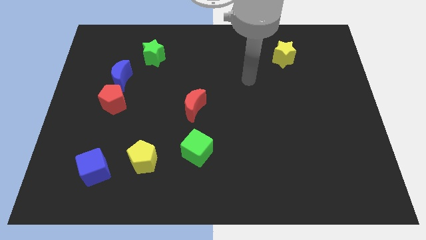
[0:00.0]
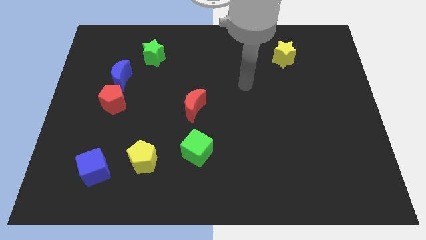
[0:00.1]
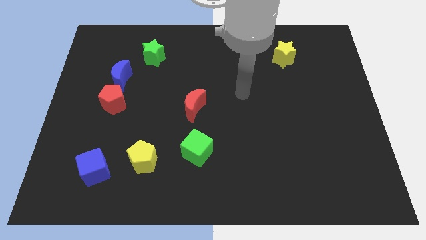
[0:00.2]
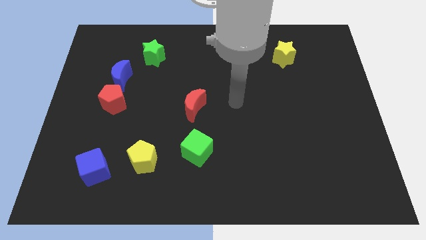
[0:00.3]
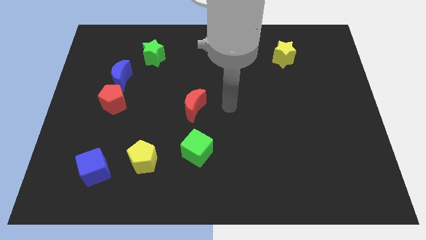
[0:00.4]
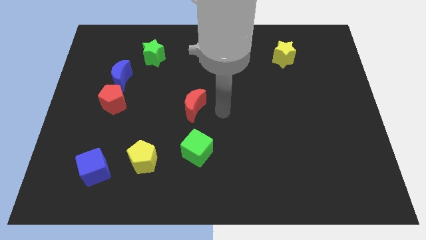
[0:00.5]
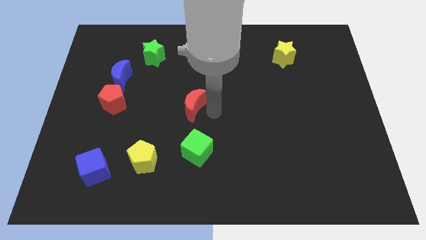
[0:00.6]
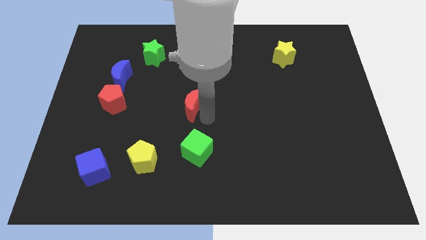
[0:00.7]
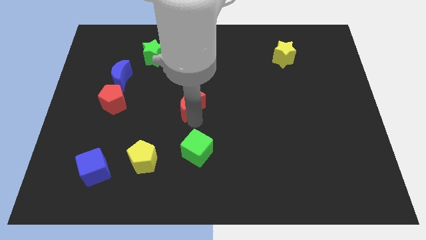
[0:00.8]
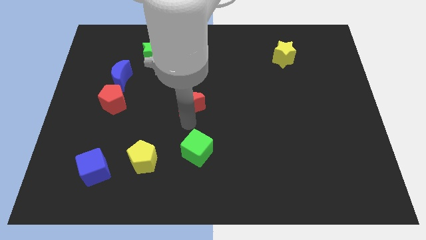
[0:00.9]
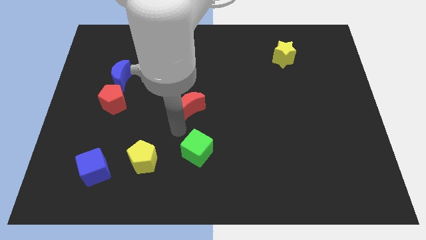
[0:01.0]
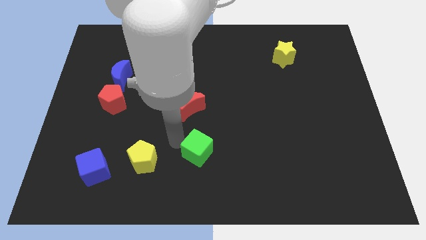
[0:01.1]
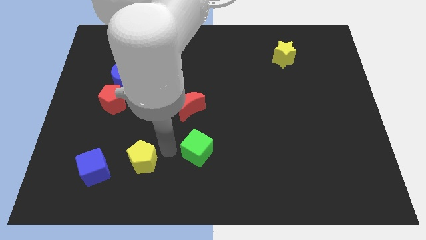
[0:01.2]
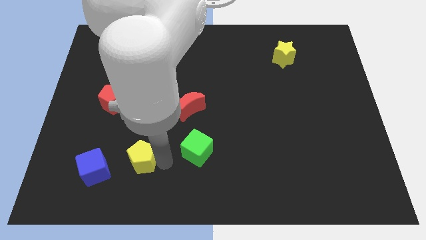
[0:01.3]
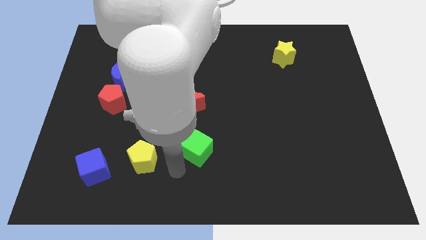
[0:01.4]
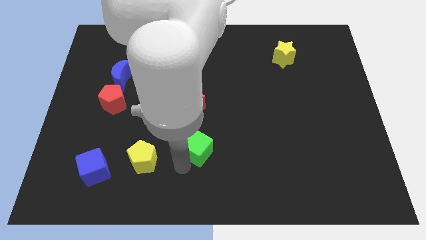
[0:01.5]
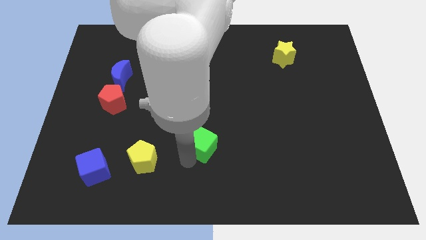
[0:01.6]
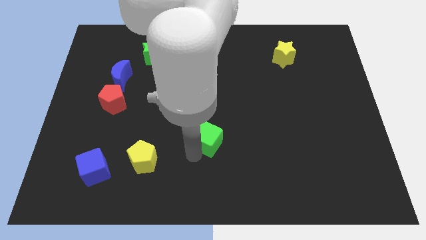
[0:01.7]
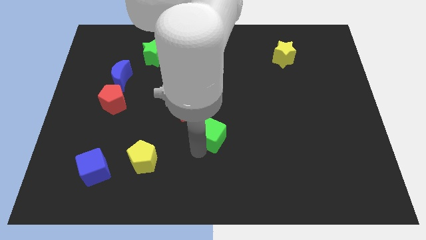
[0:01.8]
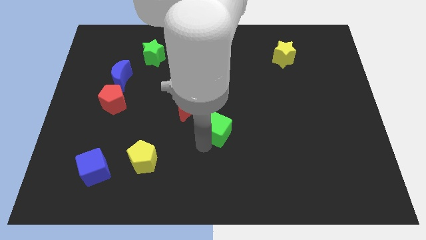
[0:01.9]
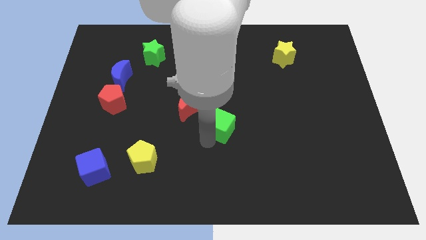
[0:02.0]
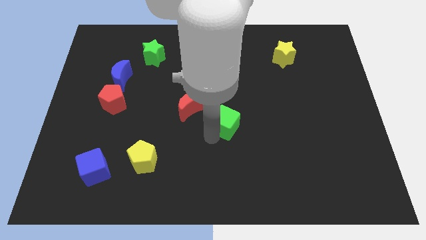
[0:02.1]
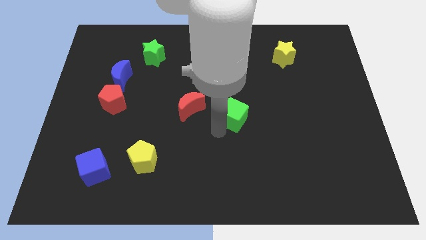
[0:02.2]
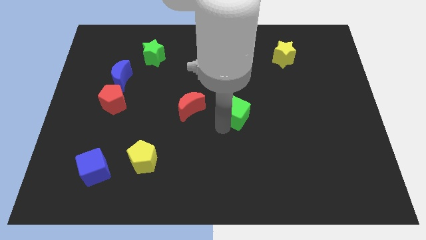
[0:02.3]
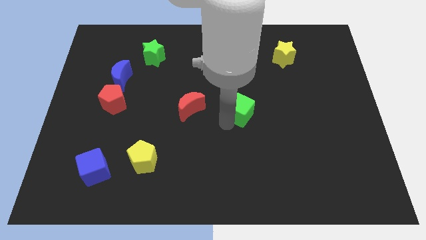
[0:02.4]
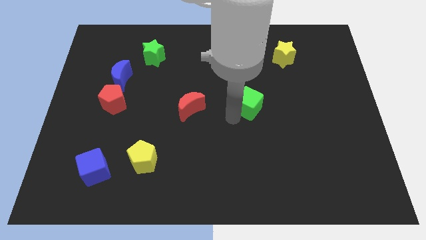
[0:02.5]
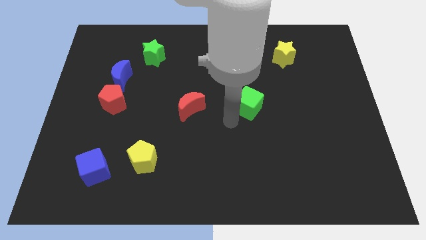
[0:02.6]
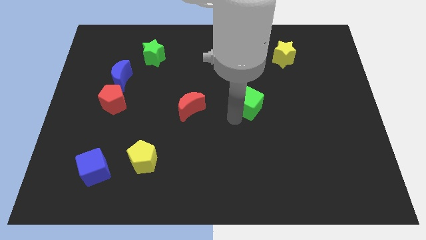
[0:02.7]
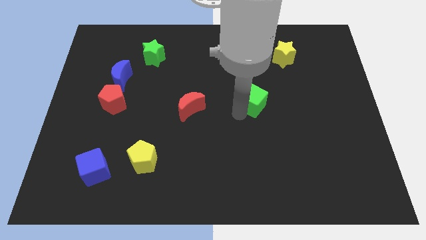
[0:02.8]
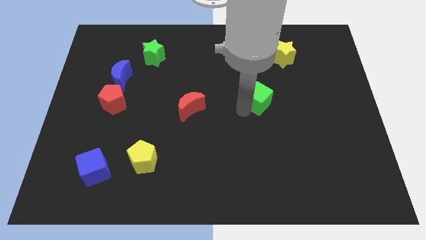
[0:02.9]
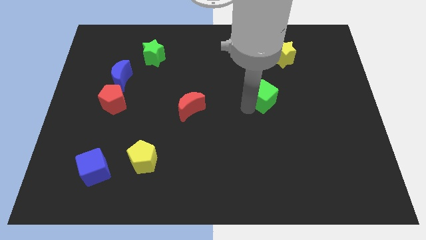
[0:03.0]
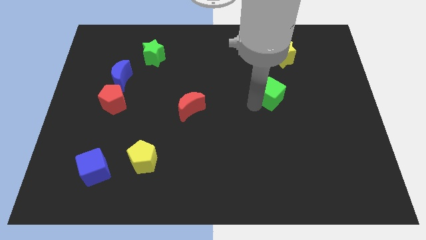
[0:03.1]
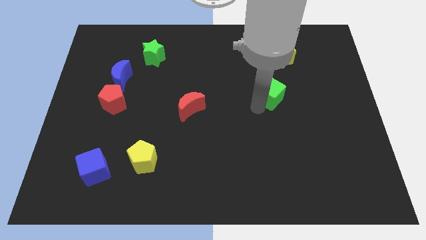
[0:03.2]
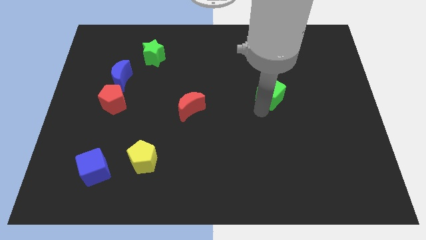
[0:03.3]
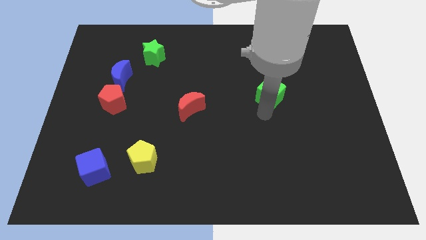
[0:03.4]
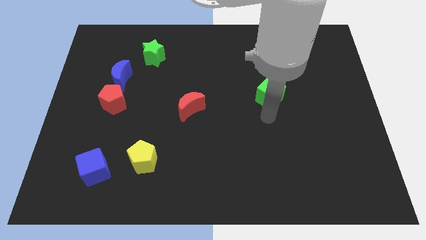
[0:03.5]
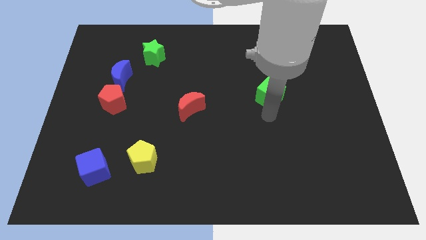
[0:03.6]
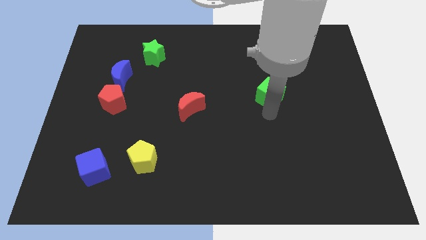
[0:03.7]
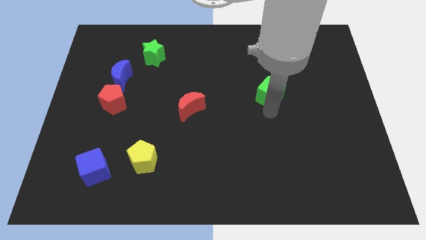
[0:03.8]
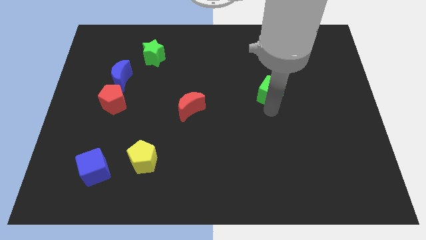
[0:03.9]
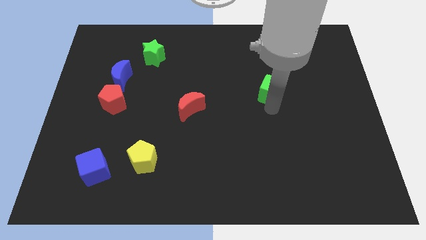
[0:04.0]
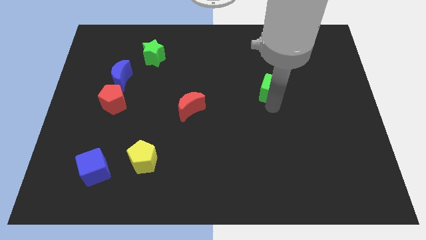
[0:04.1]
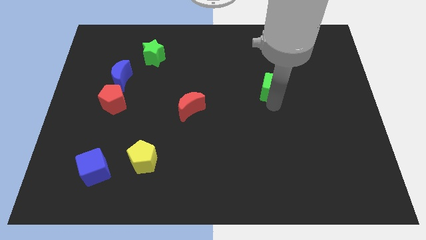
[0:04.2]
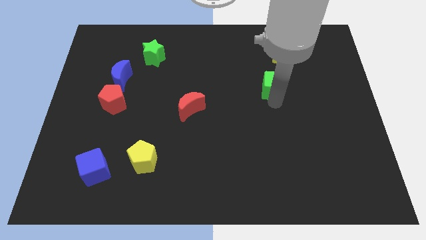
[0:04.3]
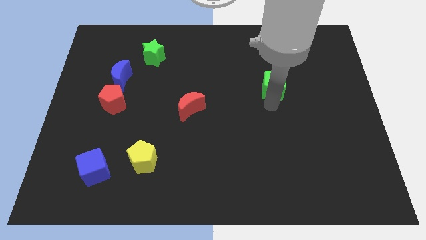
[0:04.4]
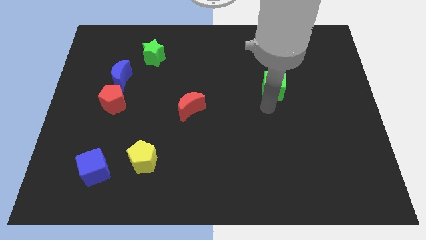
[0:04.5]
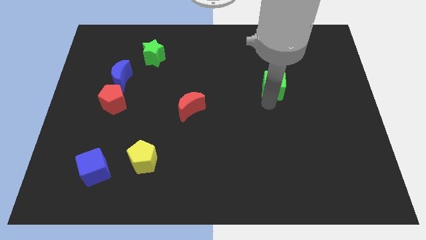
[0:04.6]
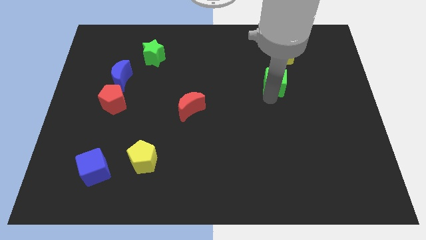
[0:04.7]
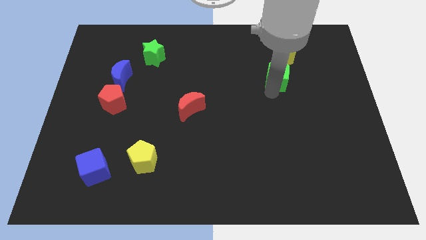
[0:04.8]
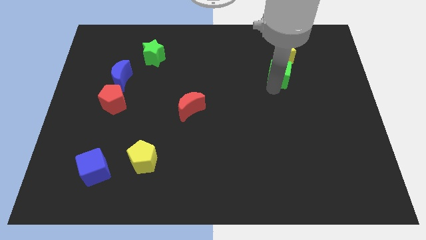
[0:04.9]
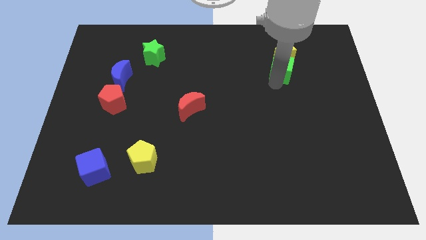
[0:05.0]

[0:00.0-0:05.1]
put the green cube towards the yellow star

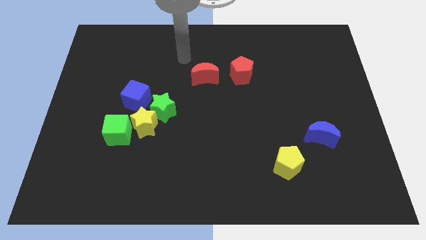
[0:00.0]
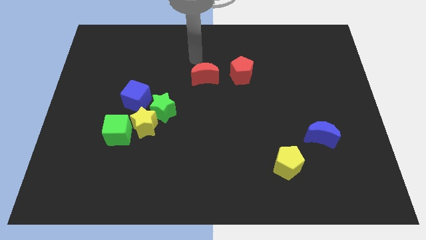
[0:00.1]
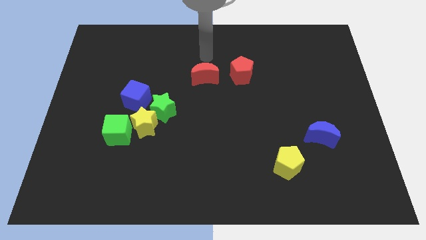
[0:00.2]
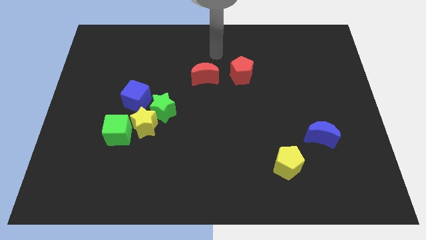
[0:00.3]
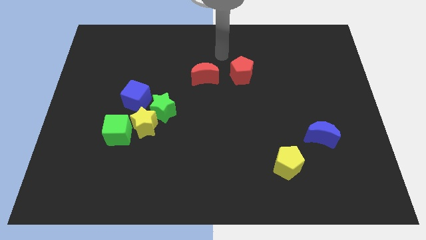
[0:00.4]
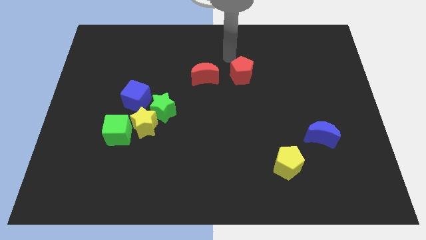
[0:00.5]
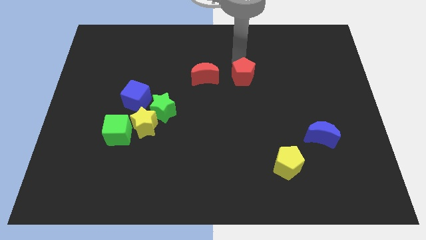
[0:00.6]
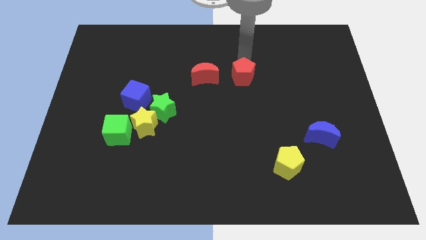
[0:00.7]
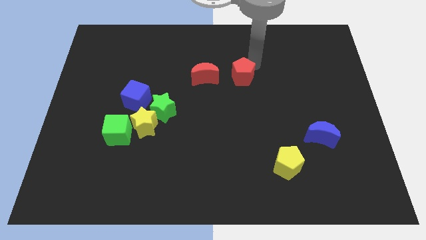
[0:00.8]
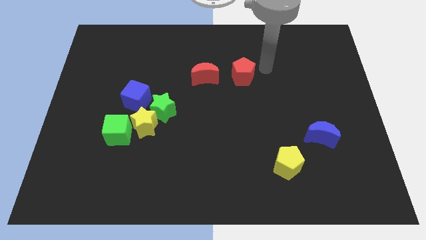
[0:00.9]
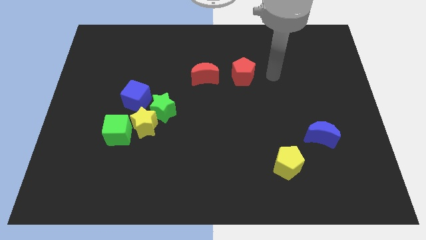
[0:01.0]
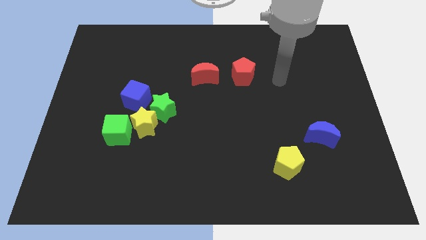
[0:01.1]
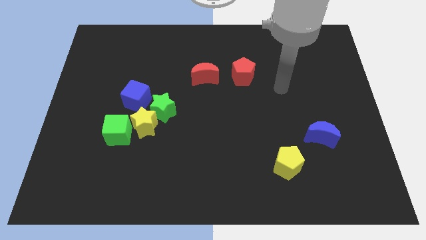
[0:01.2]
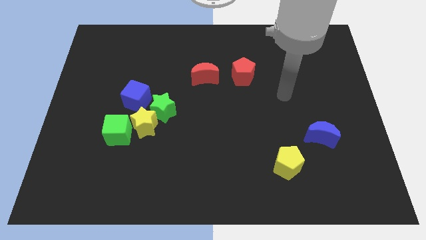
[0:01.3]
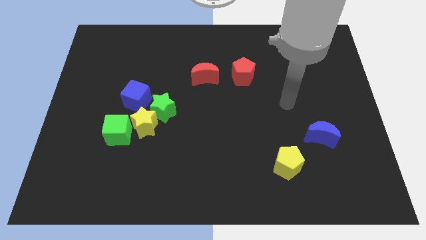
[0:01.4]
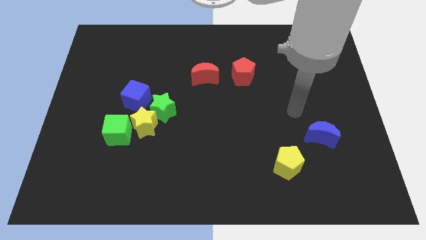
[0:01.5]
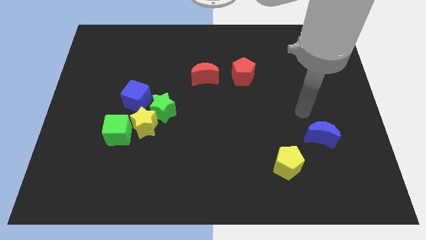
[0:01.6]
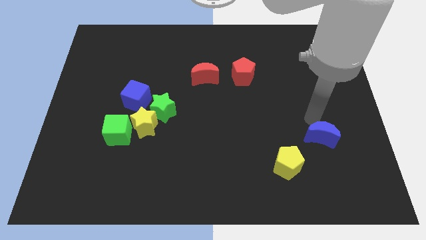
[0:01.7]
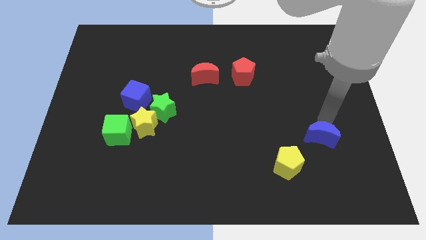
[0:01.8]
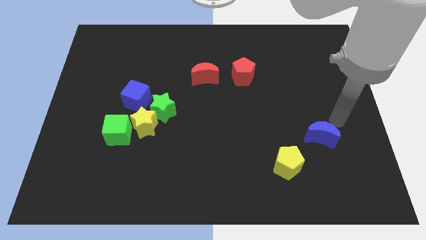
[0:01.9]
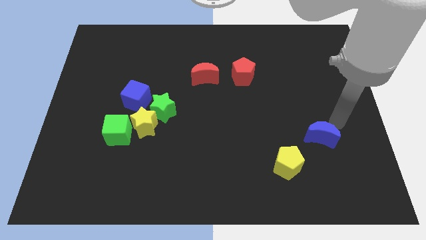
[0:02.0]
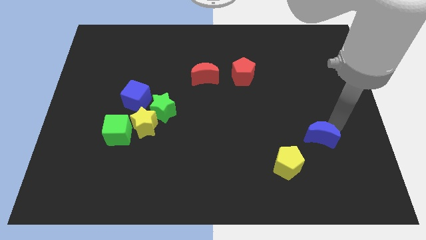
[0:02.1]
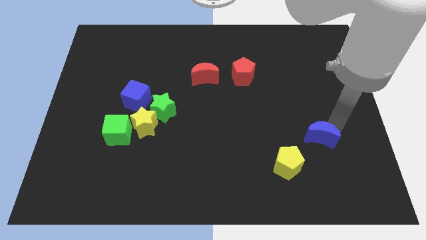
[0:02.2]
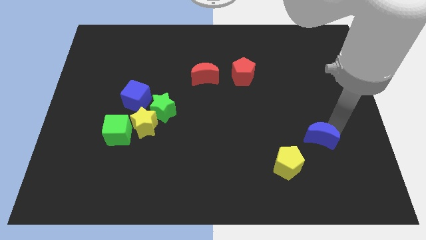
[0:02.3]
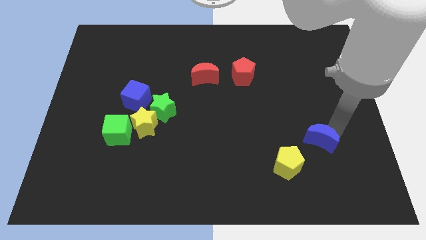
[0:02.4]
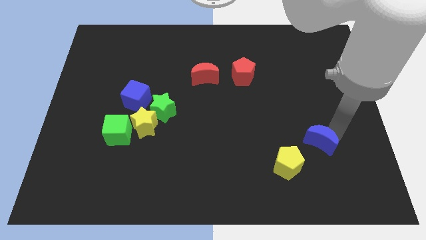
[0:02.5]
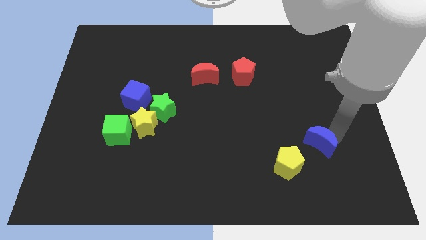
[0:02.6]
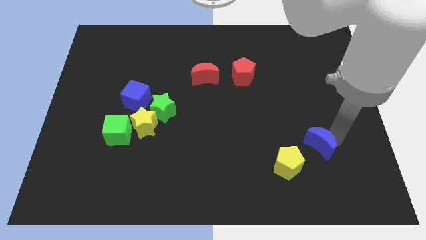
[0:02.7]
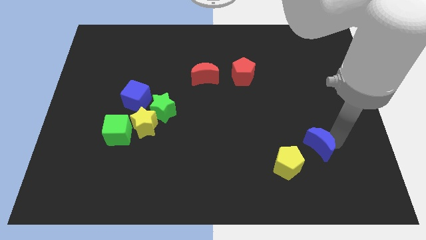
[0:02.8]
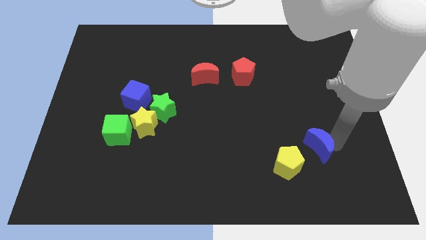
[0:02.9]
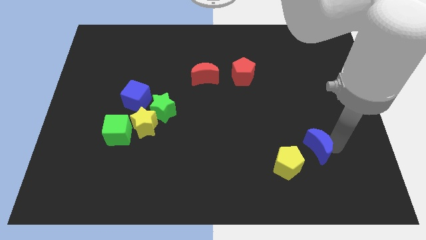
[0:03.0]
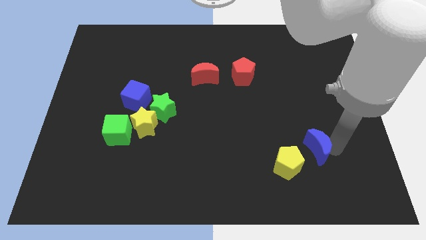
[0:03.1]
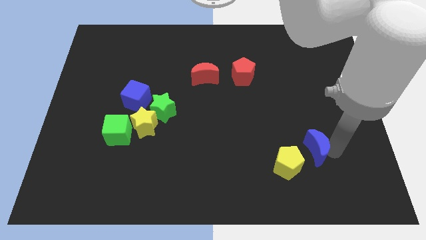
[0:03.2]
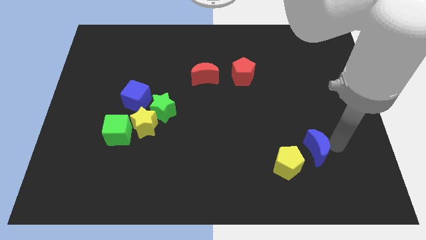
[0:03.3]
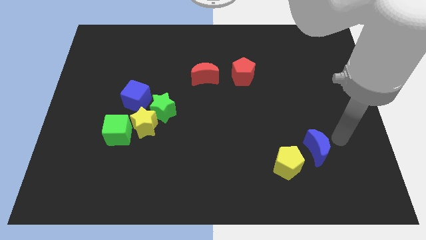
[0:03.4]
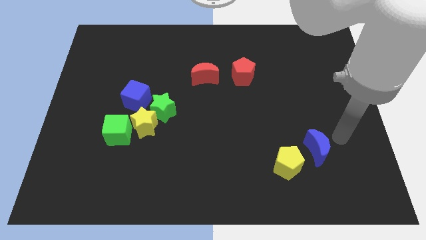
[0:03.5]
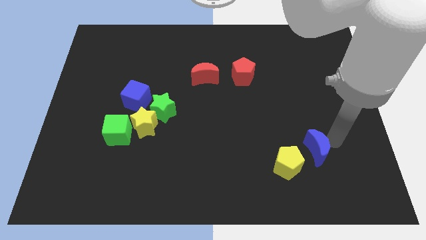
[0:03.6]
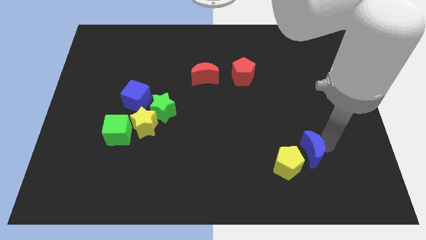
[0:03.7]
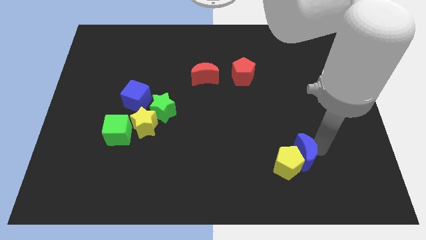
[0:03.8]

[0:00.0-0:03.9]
move the blue moon next to the yellow pentagon
